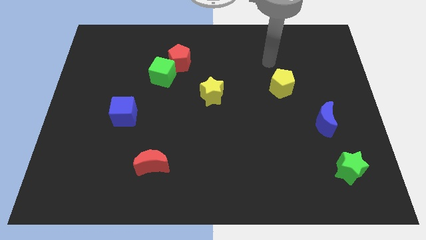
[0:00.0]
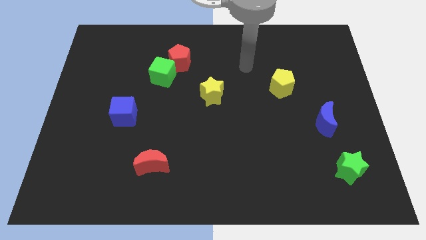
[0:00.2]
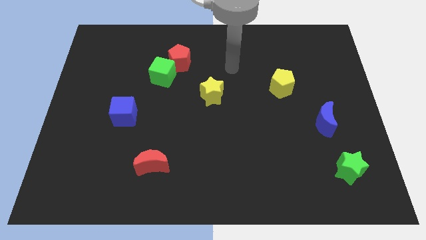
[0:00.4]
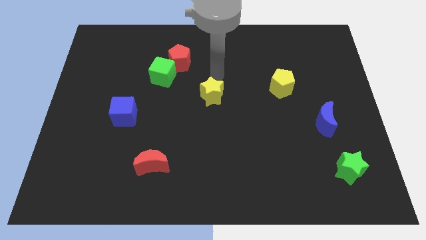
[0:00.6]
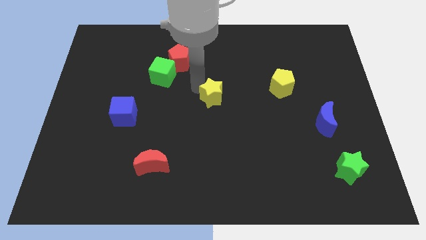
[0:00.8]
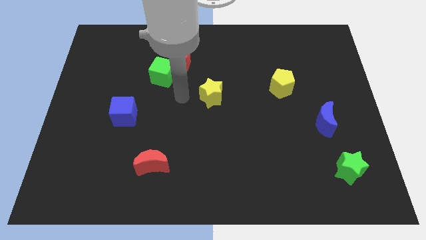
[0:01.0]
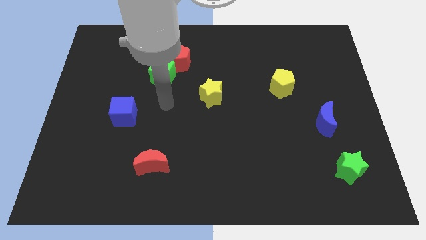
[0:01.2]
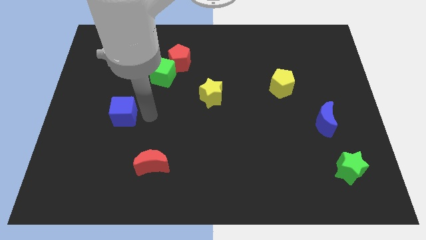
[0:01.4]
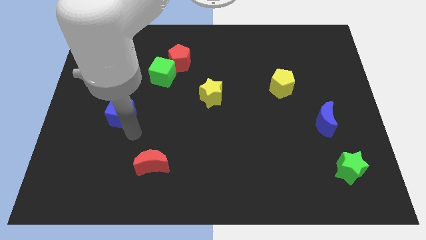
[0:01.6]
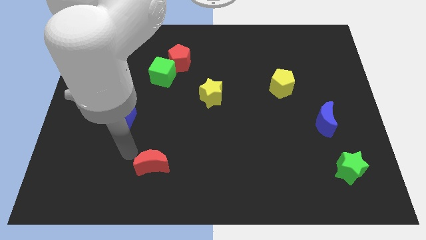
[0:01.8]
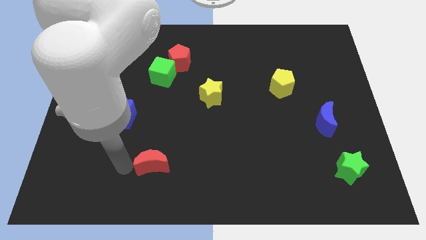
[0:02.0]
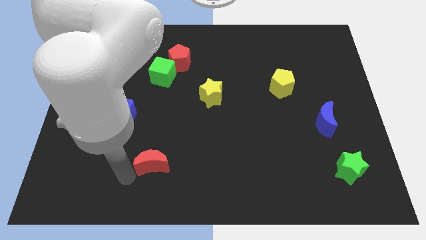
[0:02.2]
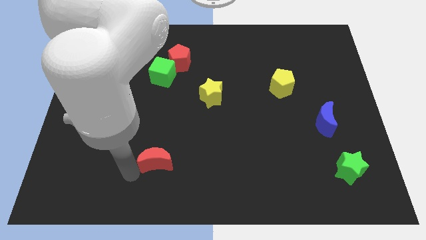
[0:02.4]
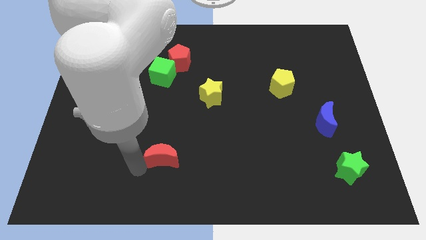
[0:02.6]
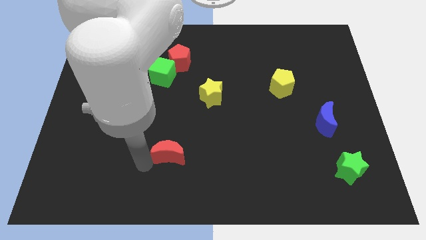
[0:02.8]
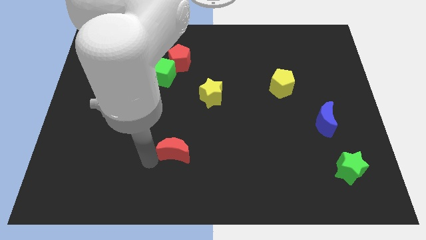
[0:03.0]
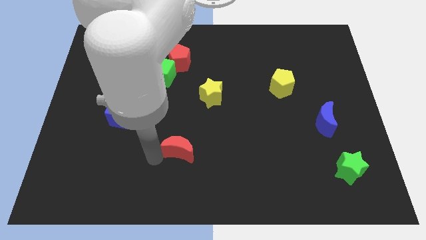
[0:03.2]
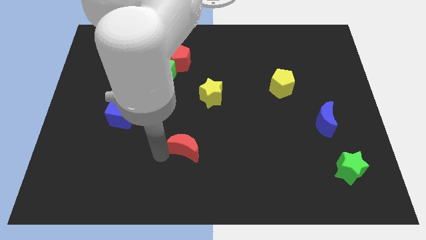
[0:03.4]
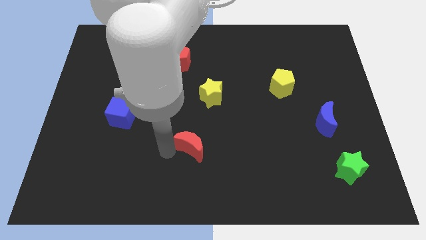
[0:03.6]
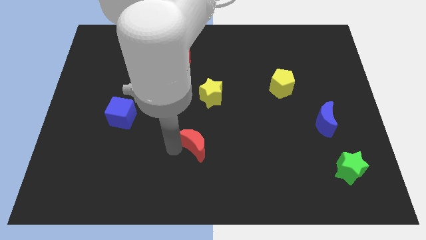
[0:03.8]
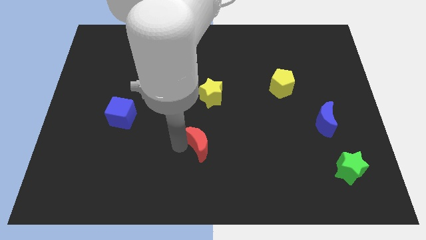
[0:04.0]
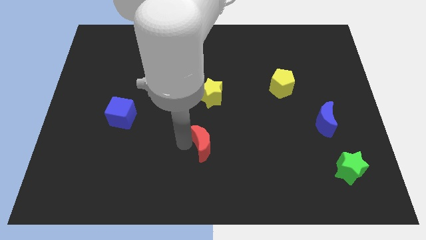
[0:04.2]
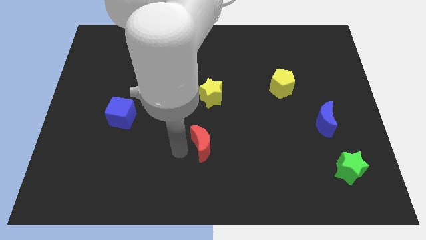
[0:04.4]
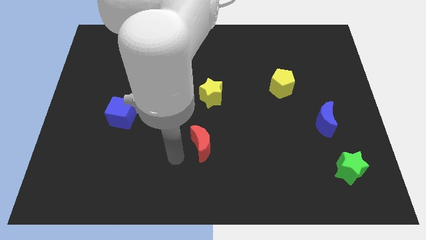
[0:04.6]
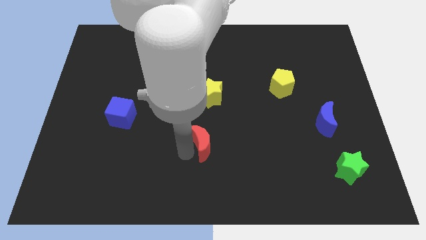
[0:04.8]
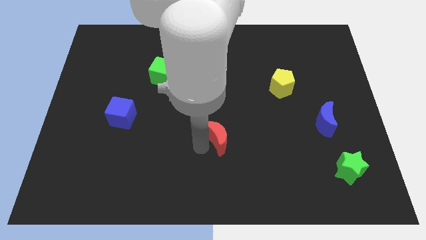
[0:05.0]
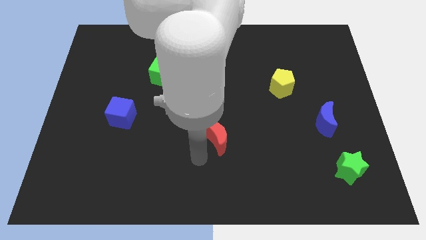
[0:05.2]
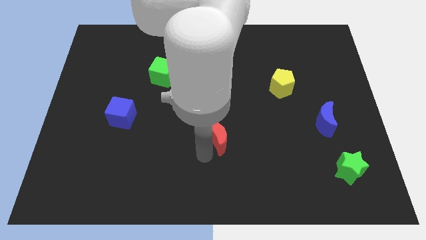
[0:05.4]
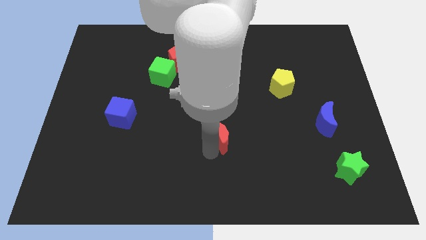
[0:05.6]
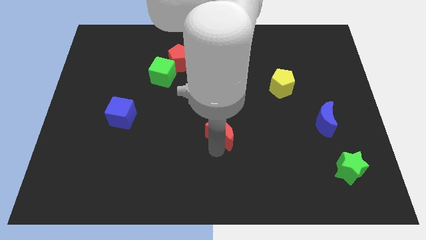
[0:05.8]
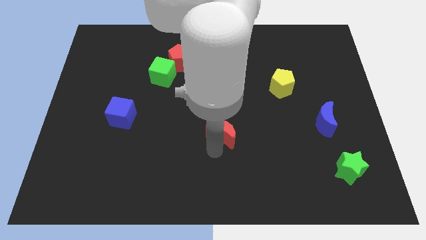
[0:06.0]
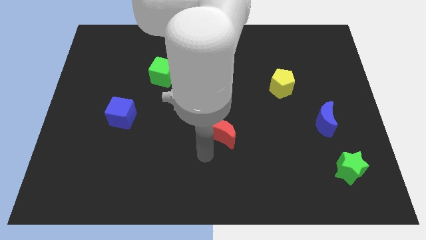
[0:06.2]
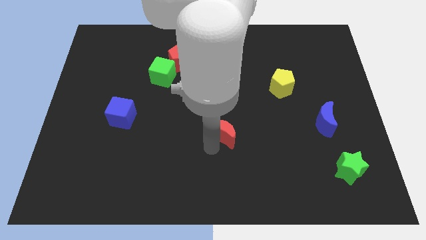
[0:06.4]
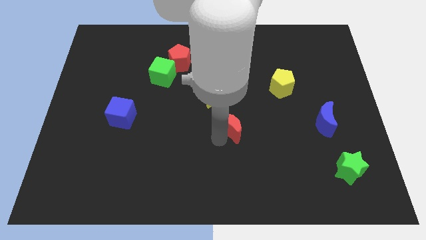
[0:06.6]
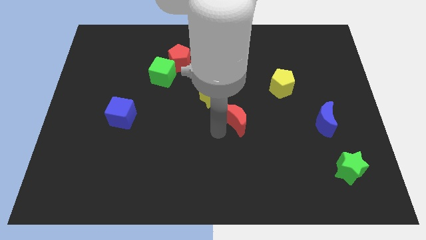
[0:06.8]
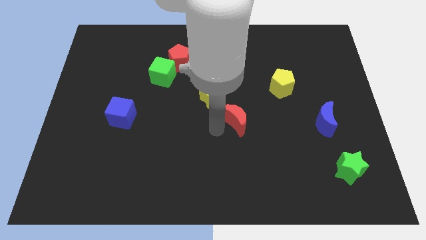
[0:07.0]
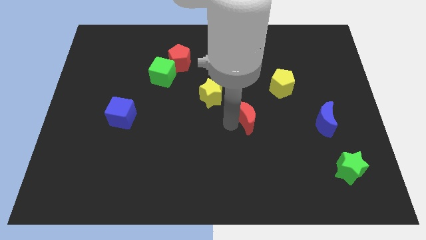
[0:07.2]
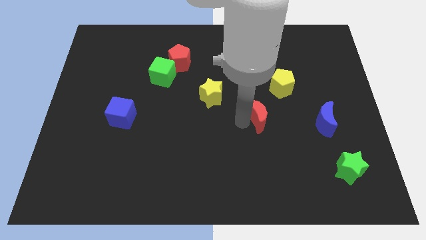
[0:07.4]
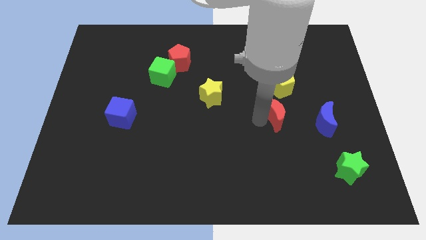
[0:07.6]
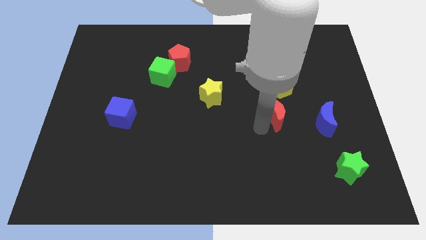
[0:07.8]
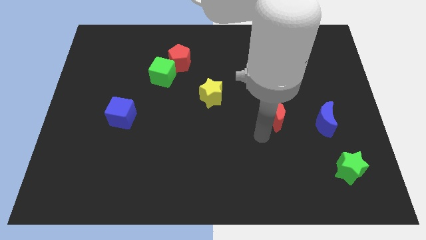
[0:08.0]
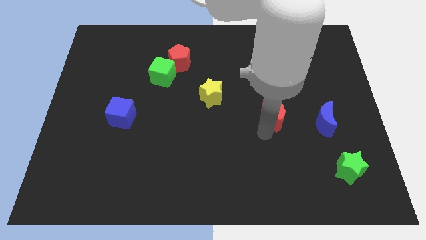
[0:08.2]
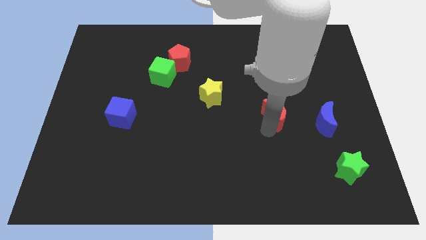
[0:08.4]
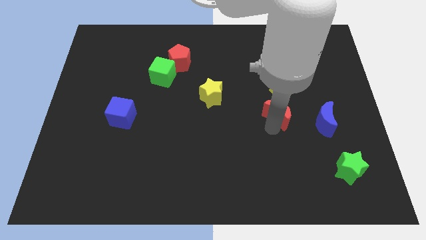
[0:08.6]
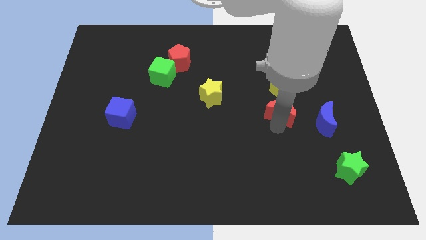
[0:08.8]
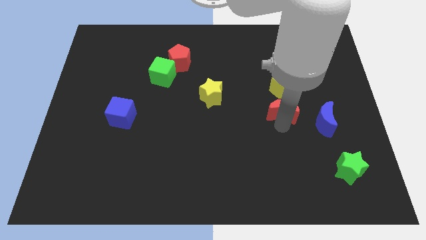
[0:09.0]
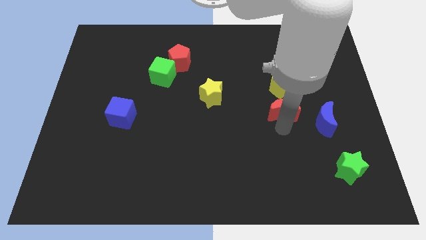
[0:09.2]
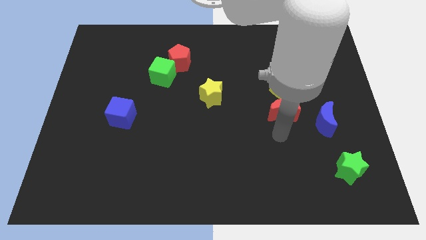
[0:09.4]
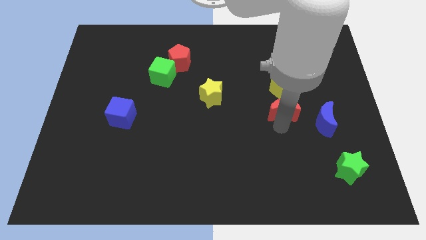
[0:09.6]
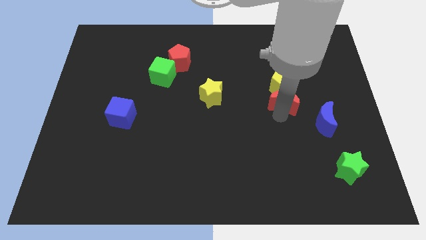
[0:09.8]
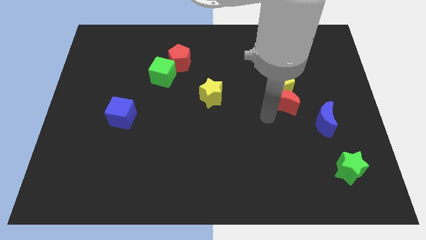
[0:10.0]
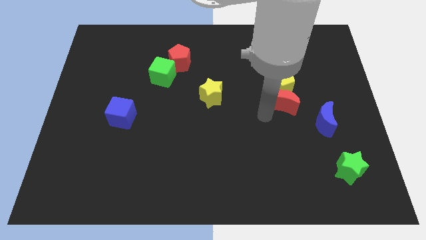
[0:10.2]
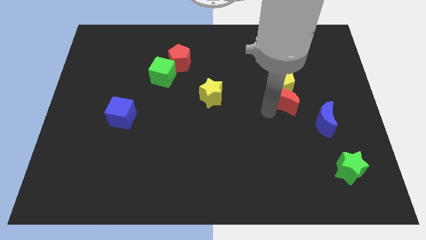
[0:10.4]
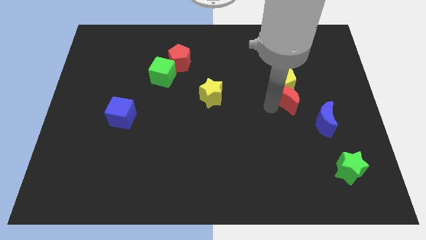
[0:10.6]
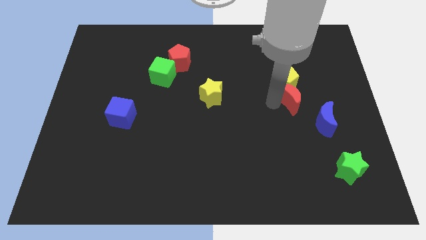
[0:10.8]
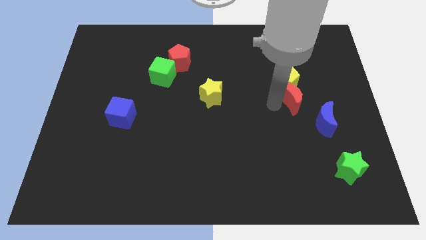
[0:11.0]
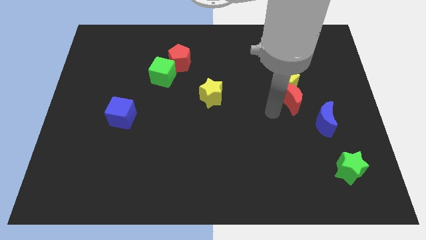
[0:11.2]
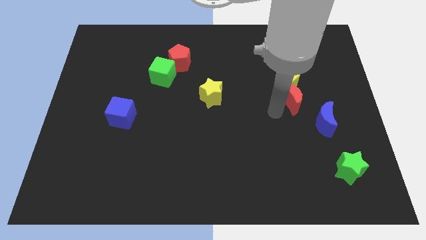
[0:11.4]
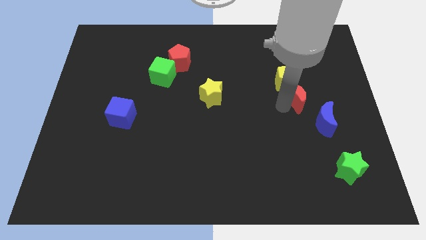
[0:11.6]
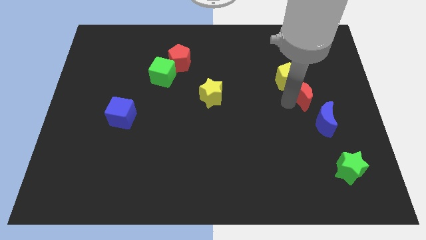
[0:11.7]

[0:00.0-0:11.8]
move the red moon to the top of the blue moon

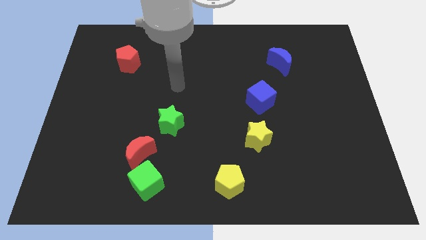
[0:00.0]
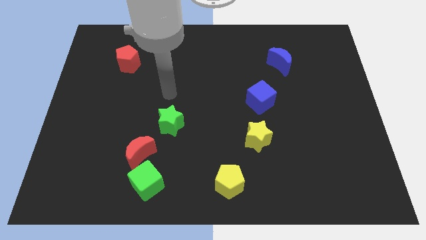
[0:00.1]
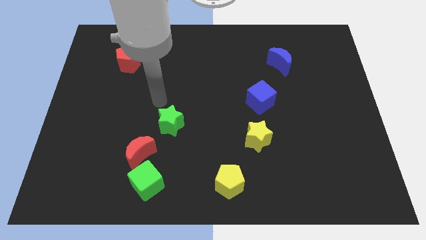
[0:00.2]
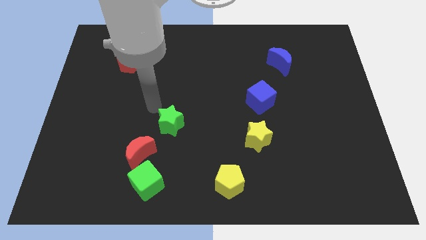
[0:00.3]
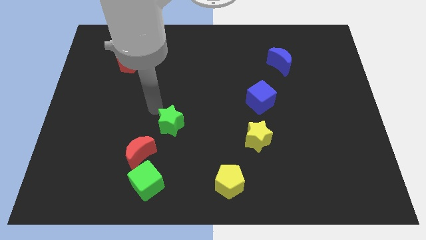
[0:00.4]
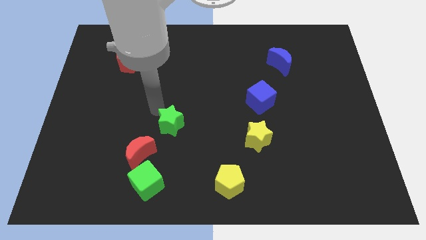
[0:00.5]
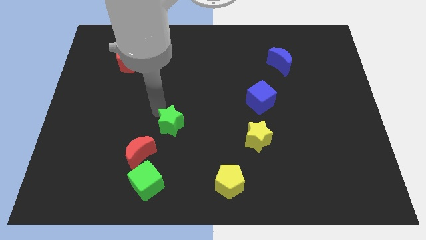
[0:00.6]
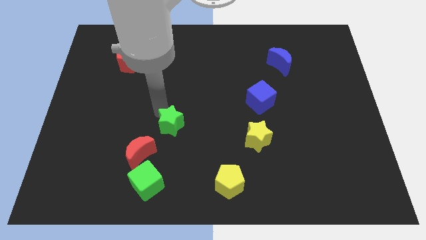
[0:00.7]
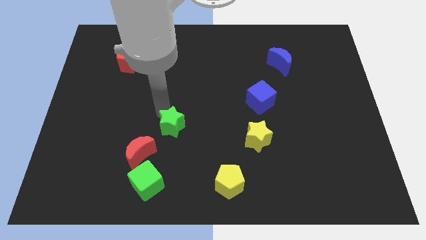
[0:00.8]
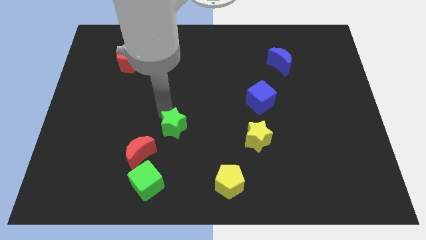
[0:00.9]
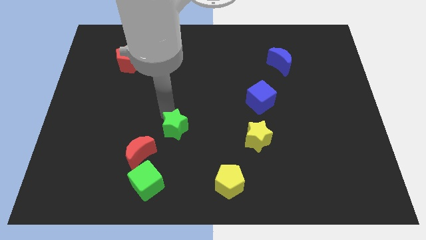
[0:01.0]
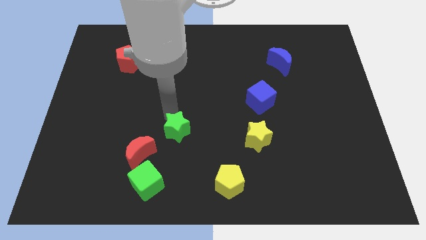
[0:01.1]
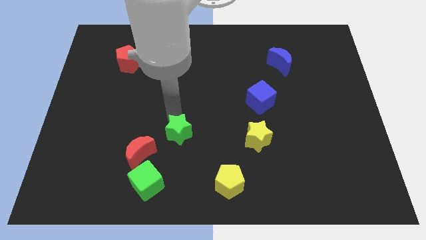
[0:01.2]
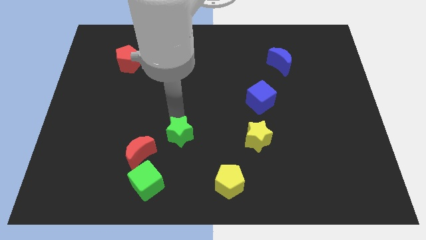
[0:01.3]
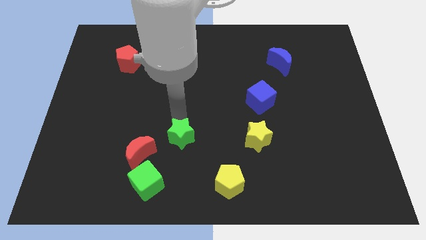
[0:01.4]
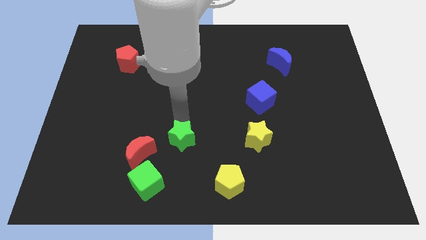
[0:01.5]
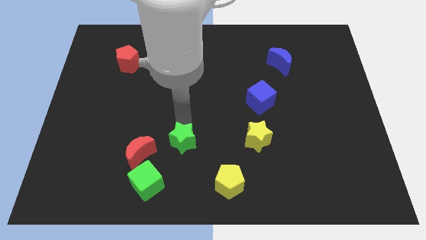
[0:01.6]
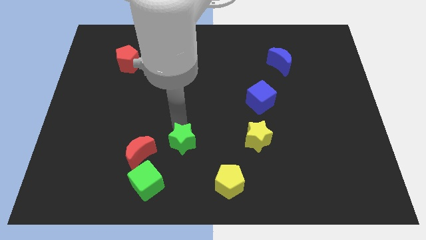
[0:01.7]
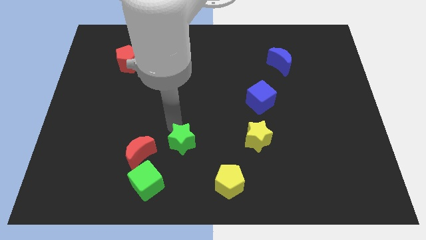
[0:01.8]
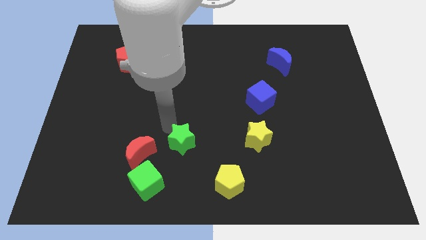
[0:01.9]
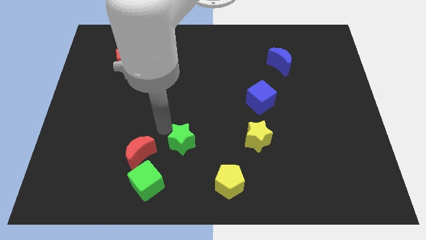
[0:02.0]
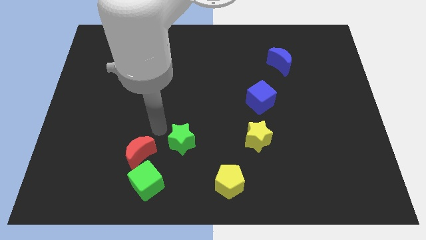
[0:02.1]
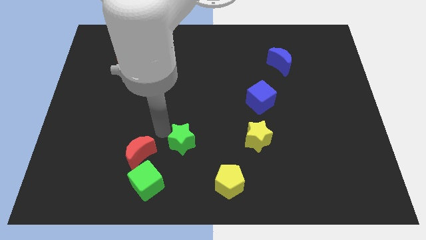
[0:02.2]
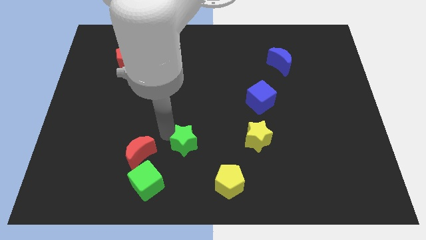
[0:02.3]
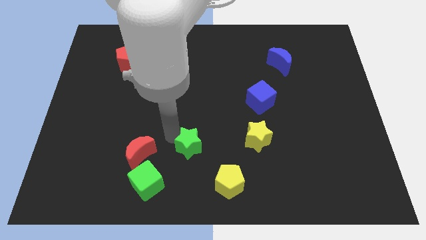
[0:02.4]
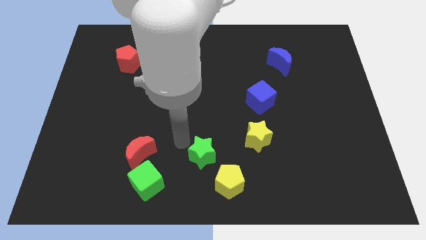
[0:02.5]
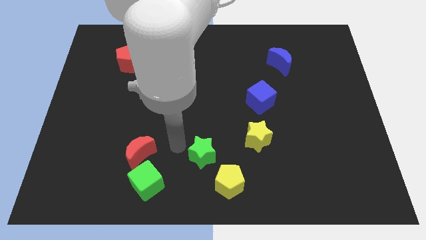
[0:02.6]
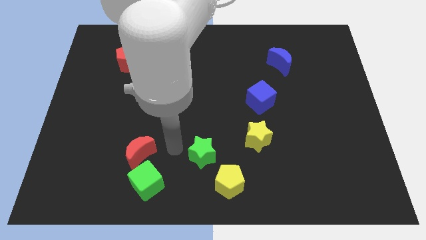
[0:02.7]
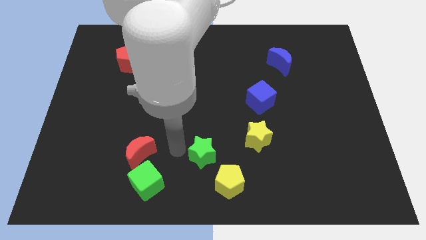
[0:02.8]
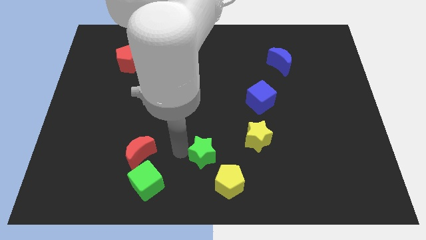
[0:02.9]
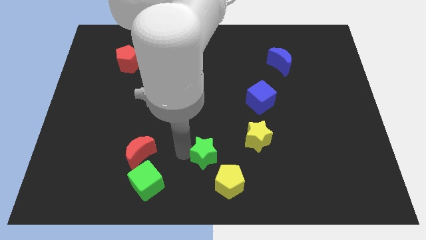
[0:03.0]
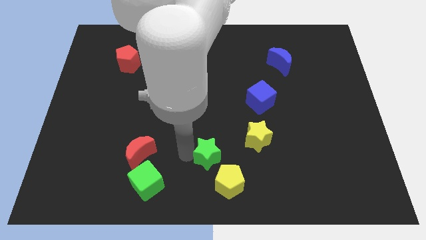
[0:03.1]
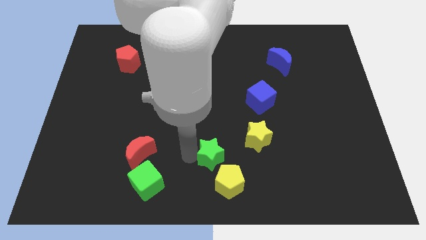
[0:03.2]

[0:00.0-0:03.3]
slide the green star to the bottom left of the yellow star
